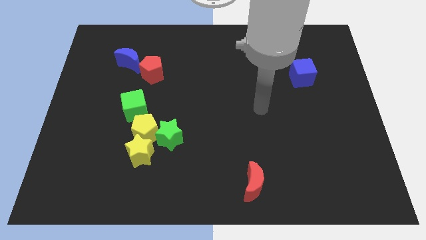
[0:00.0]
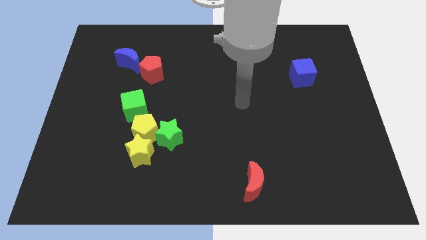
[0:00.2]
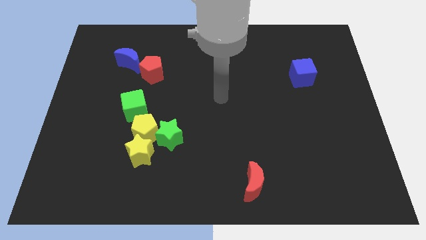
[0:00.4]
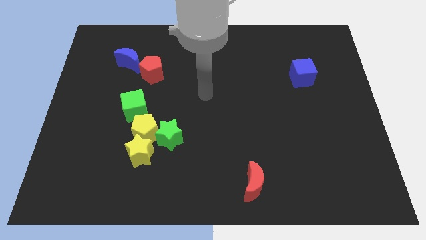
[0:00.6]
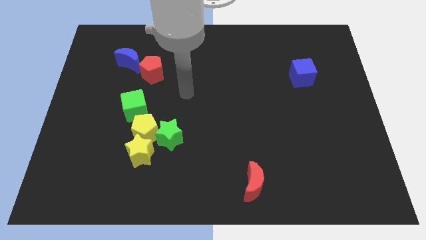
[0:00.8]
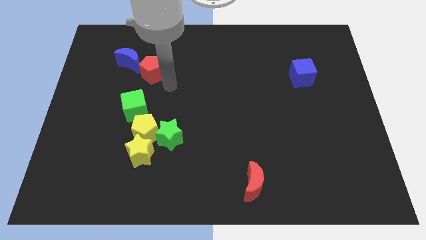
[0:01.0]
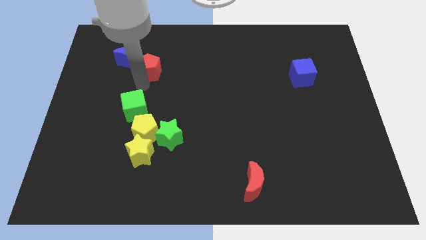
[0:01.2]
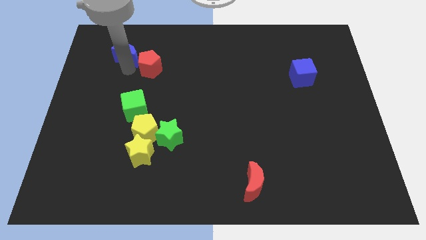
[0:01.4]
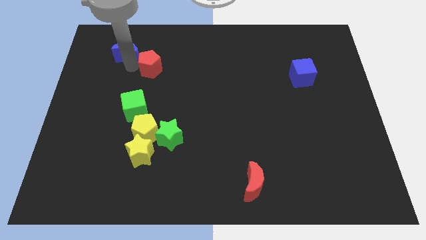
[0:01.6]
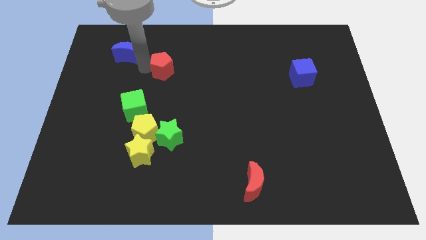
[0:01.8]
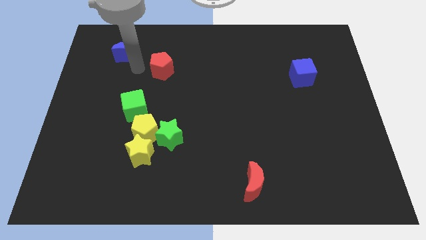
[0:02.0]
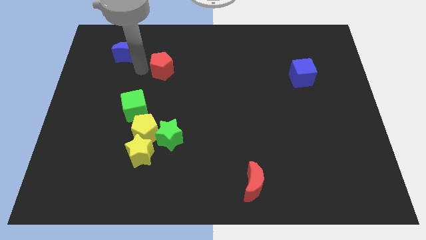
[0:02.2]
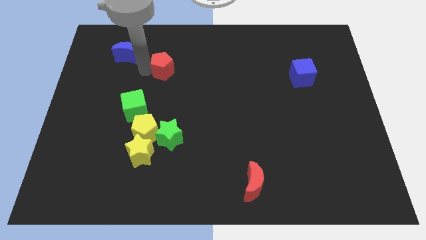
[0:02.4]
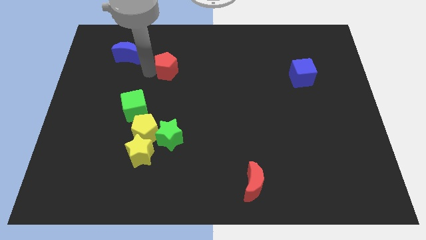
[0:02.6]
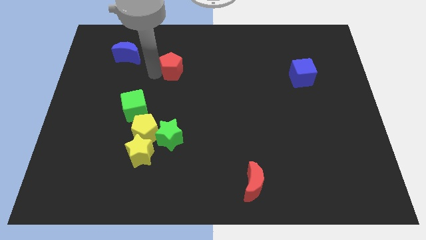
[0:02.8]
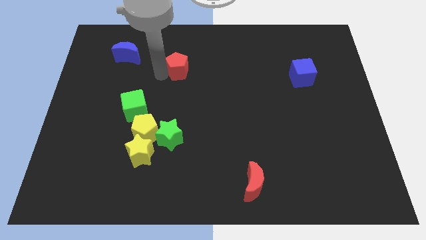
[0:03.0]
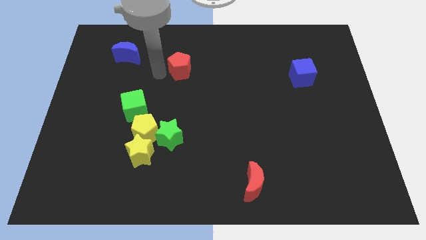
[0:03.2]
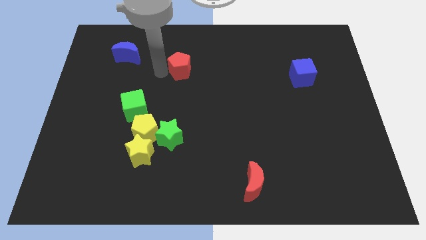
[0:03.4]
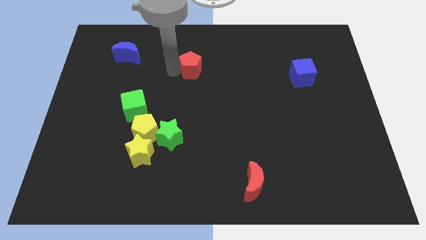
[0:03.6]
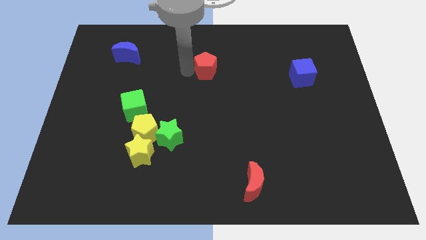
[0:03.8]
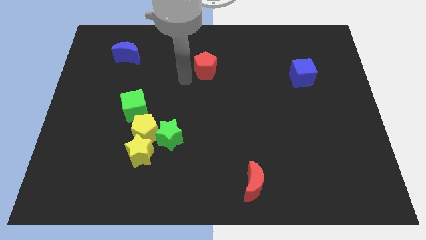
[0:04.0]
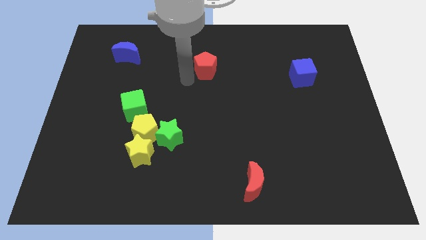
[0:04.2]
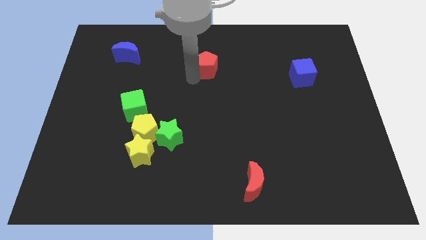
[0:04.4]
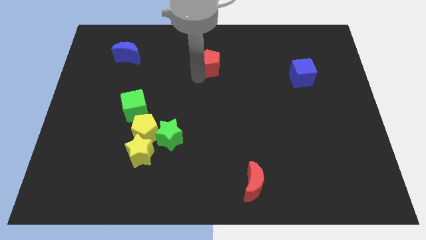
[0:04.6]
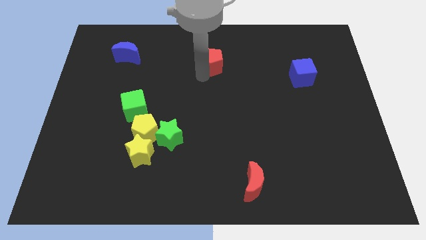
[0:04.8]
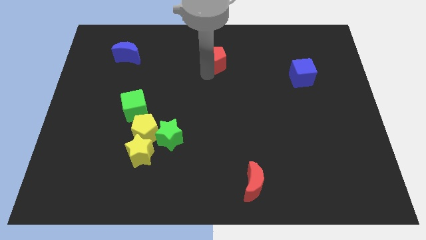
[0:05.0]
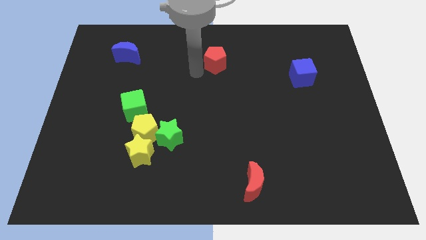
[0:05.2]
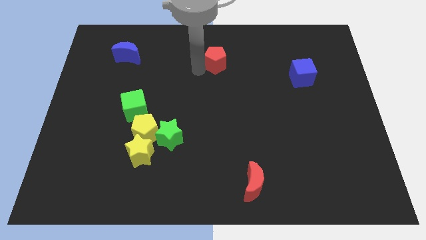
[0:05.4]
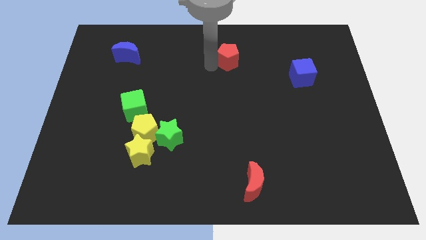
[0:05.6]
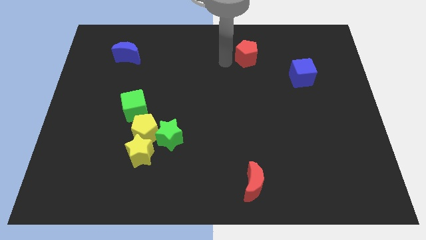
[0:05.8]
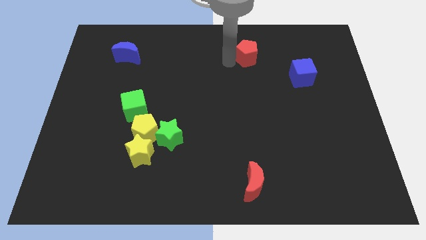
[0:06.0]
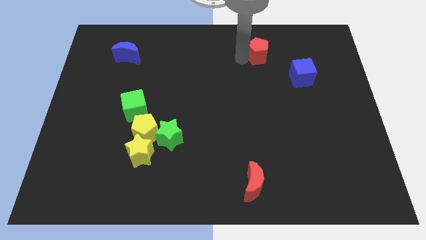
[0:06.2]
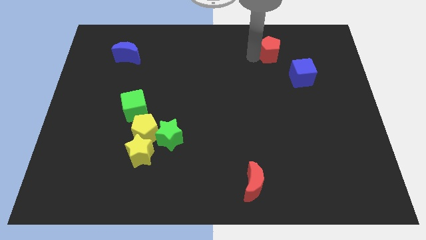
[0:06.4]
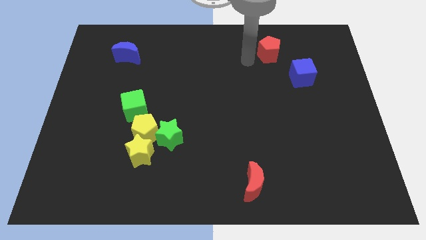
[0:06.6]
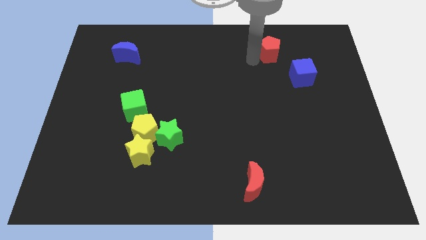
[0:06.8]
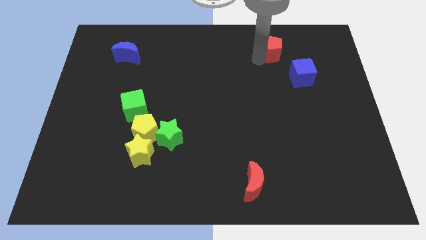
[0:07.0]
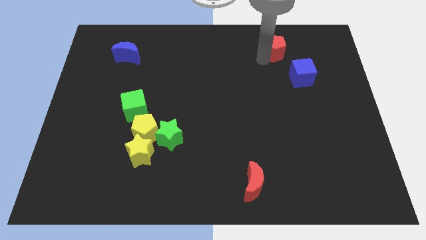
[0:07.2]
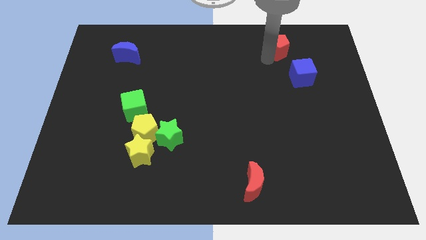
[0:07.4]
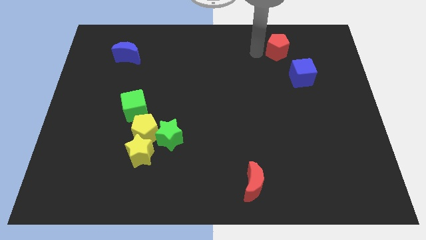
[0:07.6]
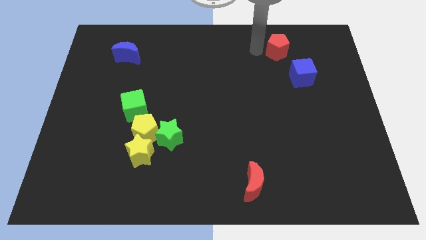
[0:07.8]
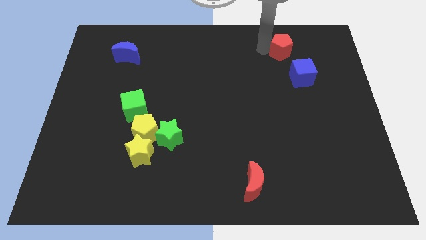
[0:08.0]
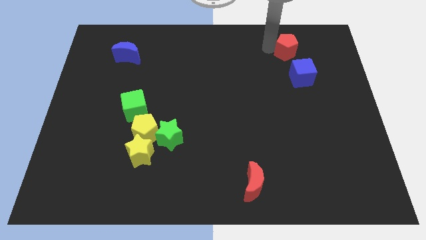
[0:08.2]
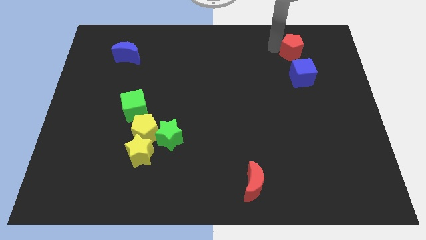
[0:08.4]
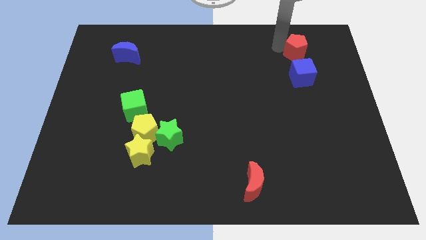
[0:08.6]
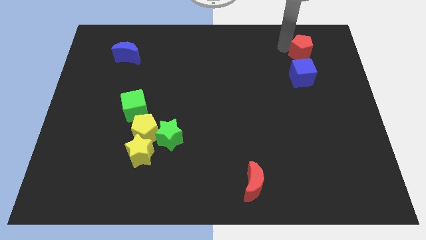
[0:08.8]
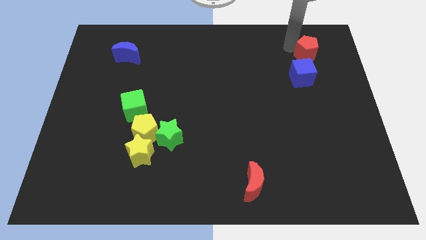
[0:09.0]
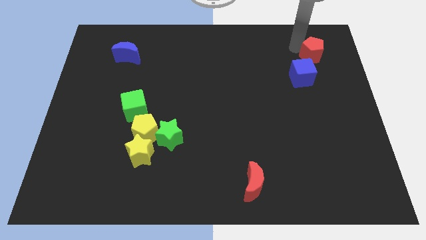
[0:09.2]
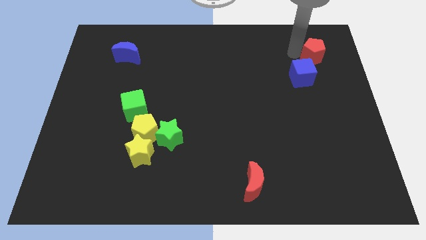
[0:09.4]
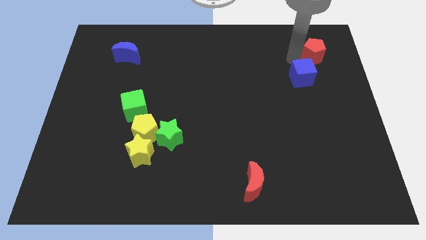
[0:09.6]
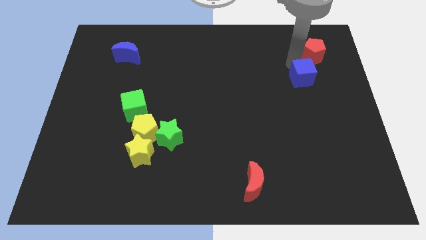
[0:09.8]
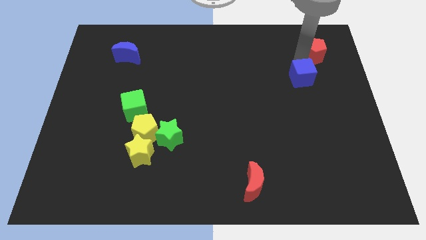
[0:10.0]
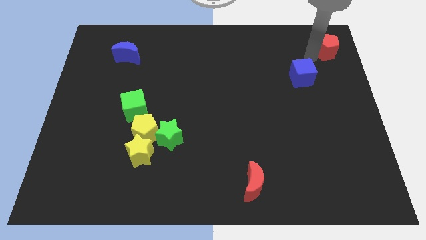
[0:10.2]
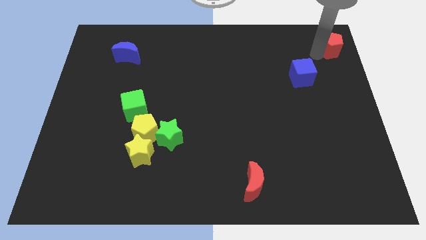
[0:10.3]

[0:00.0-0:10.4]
put the red pentagon to the upper right corner

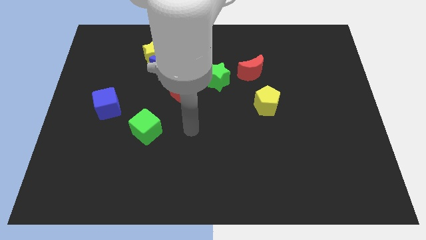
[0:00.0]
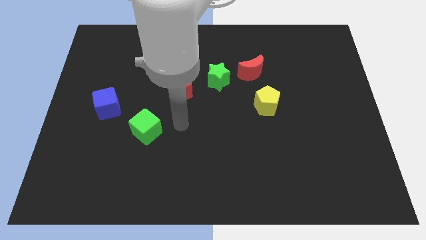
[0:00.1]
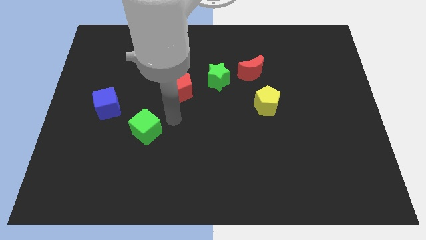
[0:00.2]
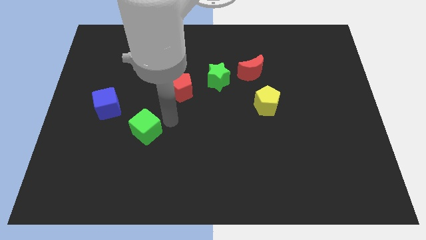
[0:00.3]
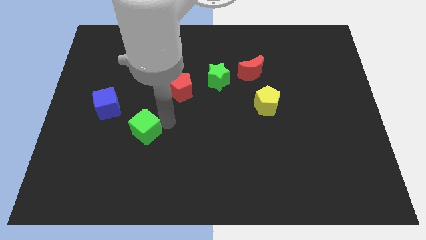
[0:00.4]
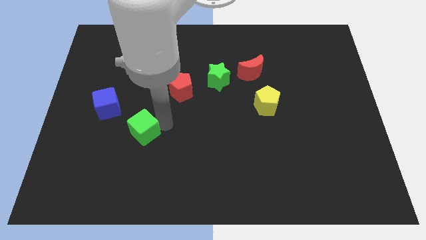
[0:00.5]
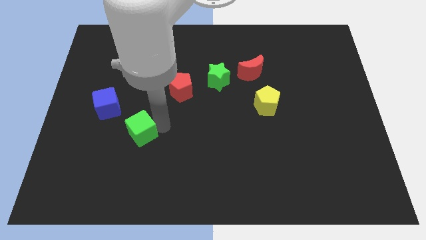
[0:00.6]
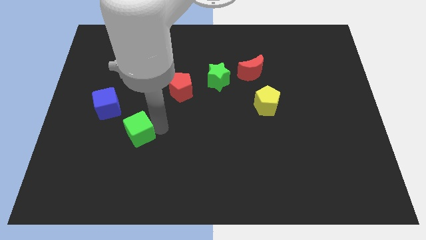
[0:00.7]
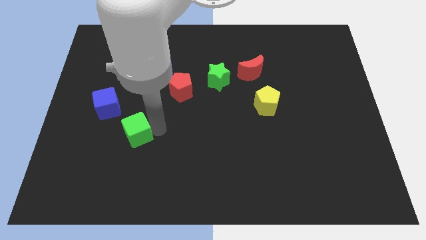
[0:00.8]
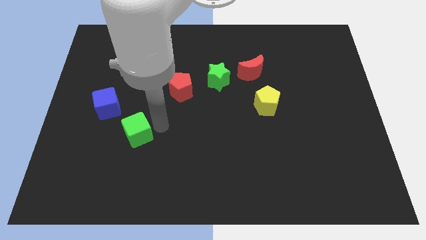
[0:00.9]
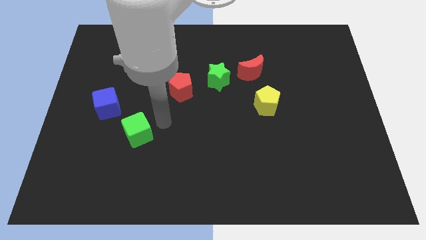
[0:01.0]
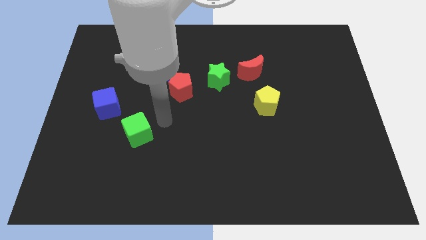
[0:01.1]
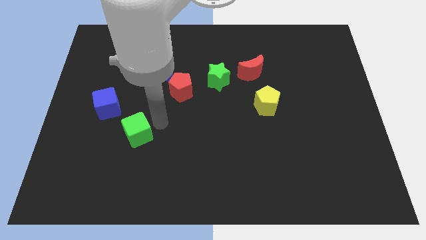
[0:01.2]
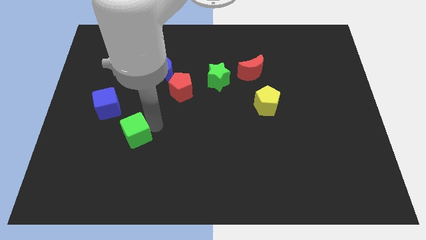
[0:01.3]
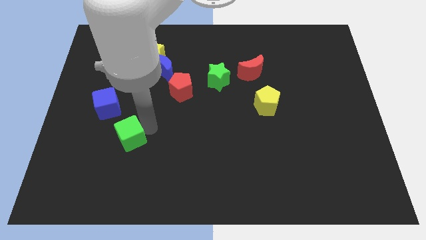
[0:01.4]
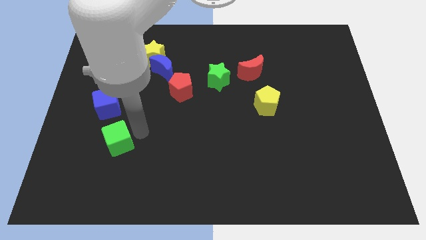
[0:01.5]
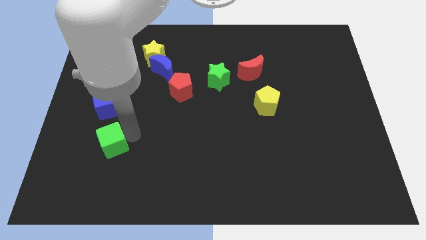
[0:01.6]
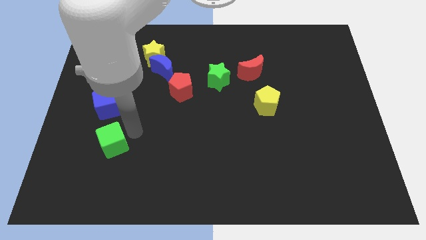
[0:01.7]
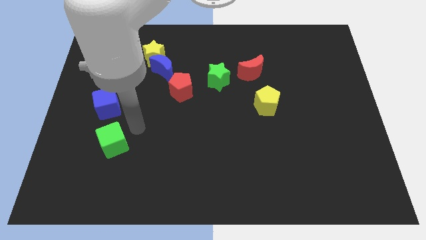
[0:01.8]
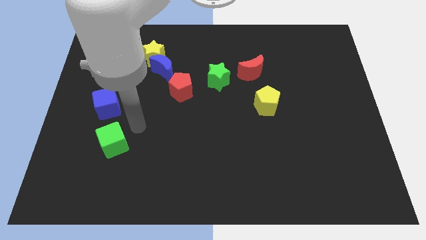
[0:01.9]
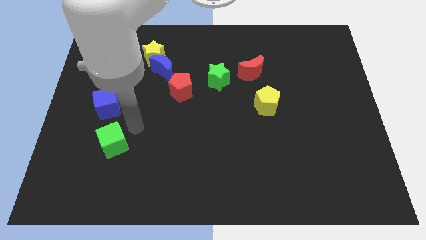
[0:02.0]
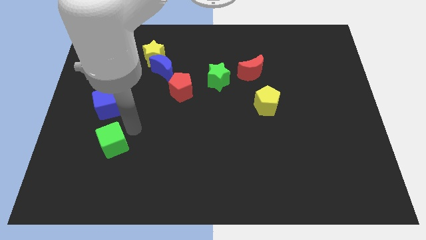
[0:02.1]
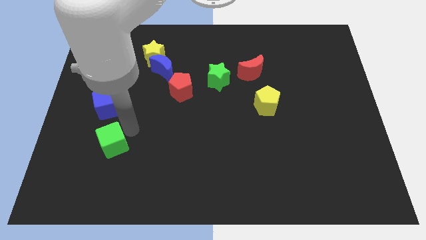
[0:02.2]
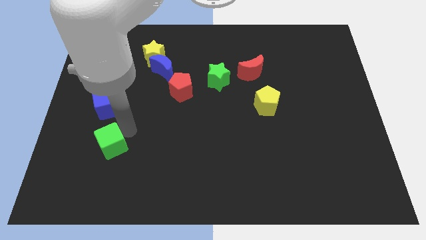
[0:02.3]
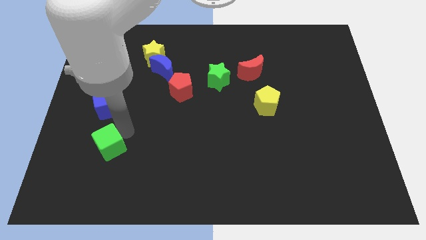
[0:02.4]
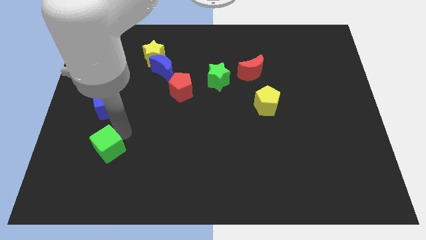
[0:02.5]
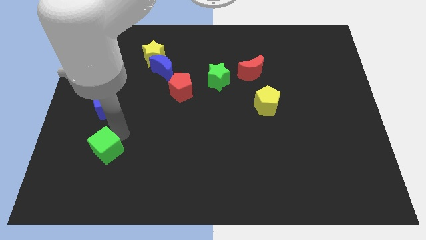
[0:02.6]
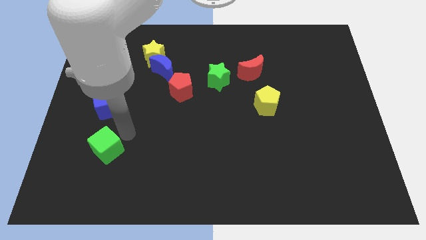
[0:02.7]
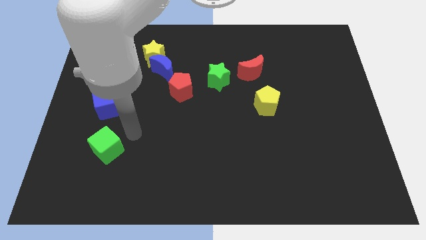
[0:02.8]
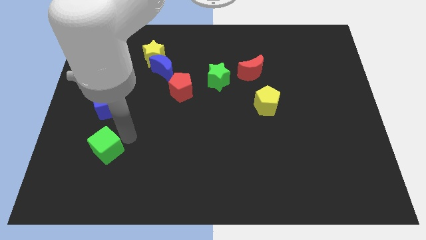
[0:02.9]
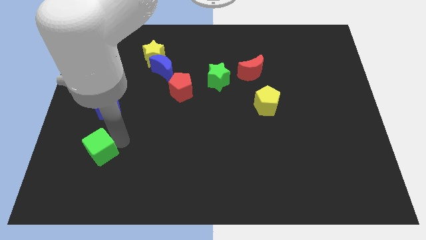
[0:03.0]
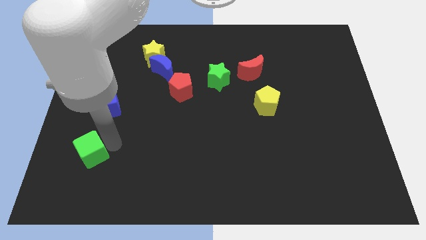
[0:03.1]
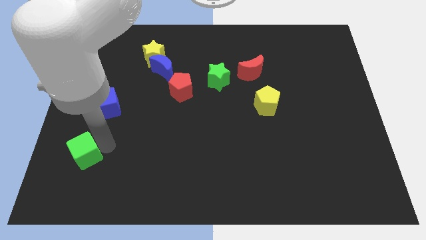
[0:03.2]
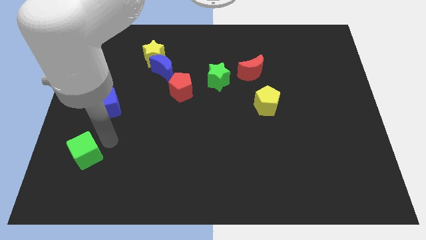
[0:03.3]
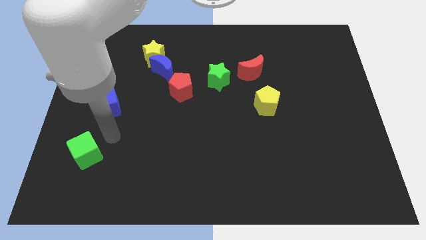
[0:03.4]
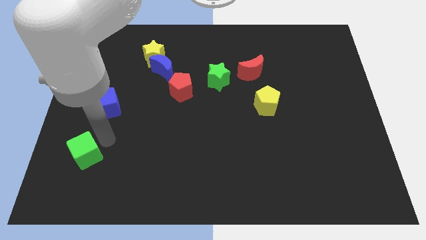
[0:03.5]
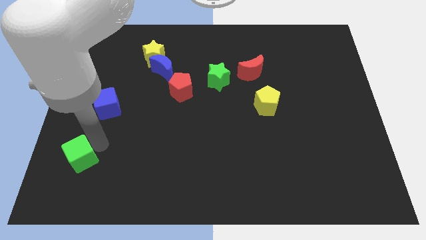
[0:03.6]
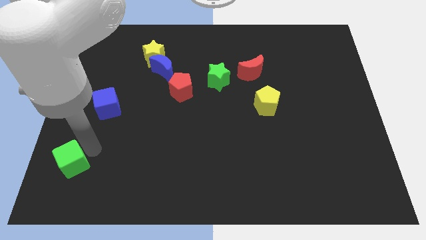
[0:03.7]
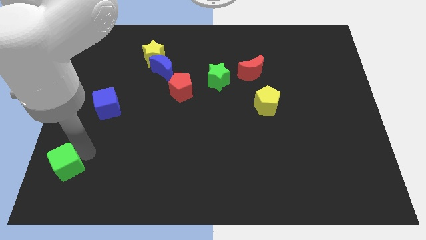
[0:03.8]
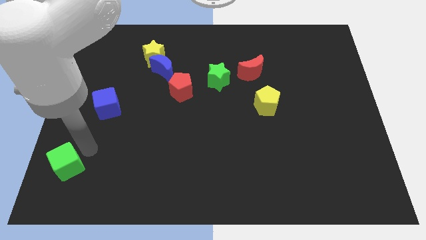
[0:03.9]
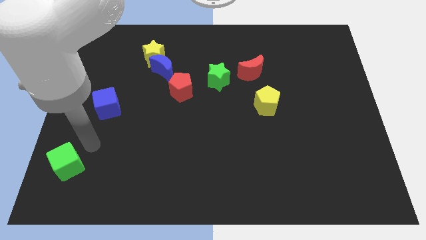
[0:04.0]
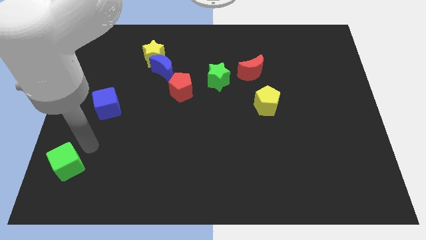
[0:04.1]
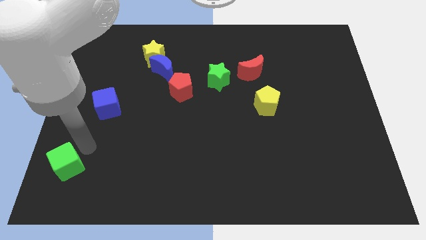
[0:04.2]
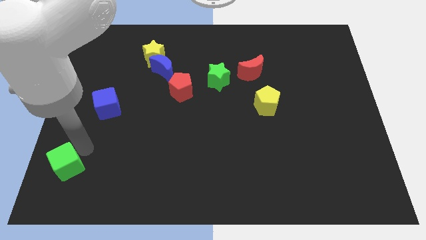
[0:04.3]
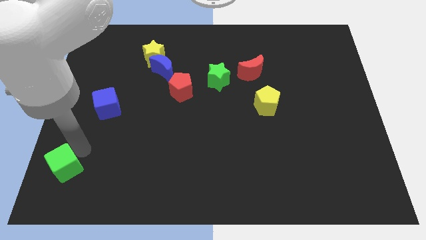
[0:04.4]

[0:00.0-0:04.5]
slide the green cube to the bottom left corner
